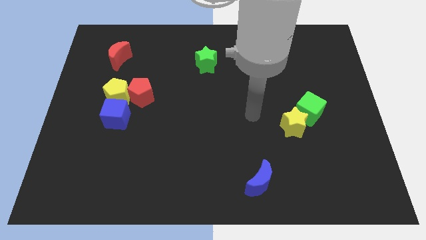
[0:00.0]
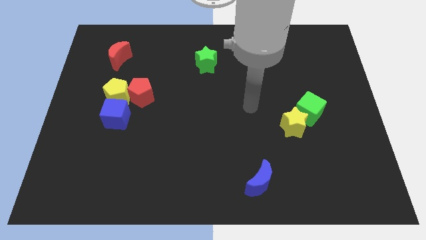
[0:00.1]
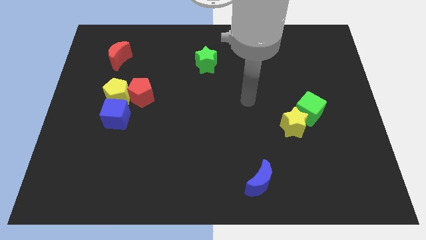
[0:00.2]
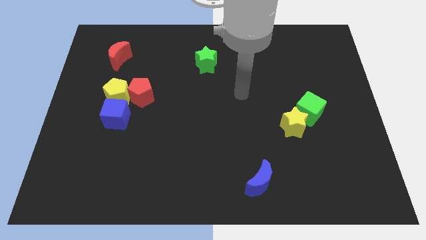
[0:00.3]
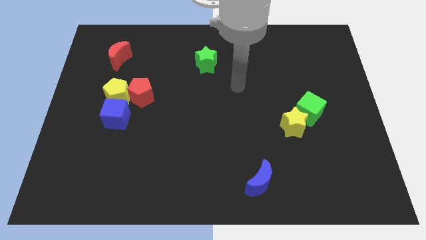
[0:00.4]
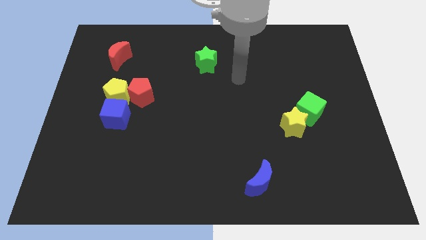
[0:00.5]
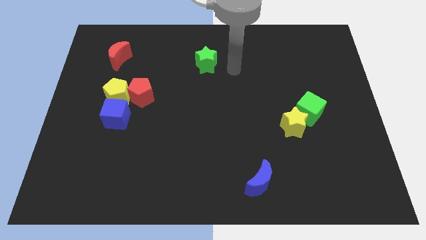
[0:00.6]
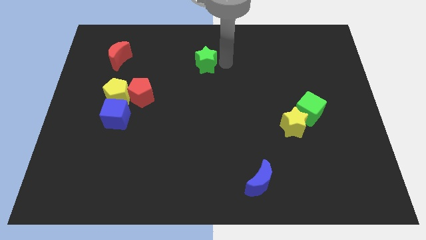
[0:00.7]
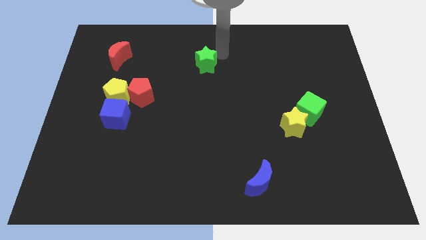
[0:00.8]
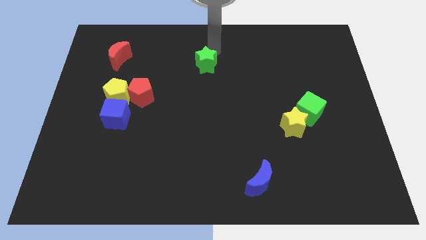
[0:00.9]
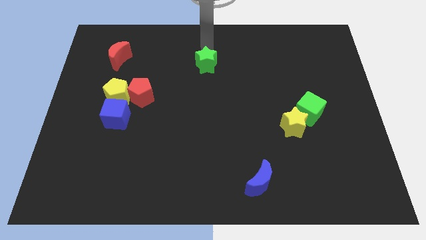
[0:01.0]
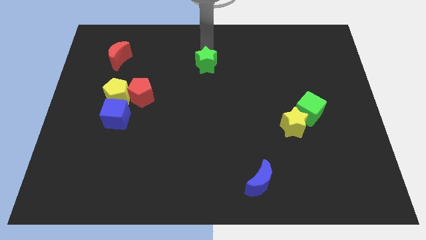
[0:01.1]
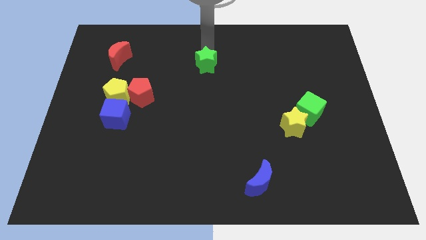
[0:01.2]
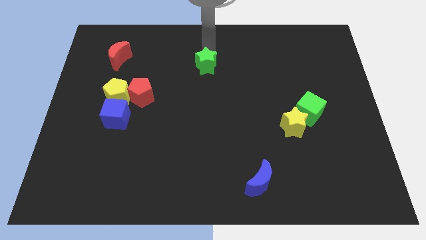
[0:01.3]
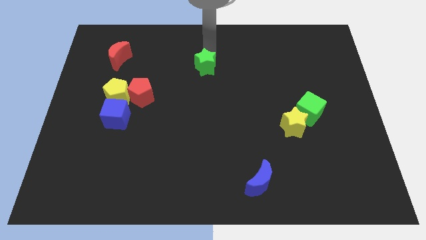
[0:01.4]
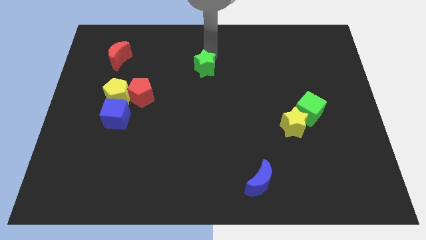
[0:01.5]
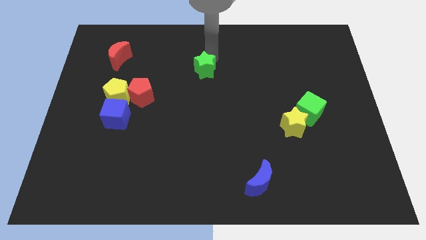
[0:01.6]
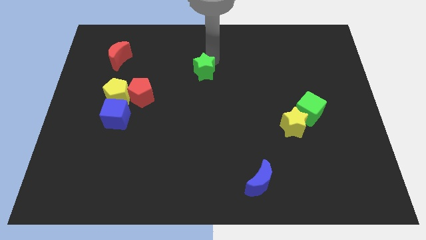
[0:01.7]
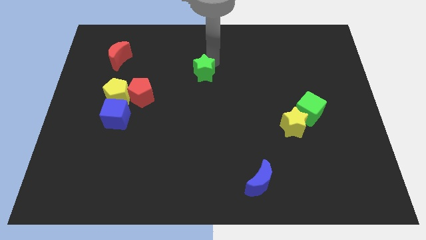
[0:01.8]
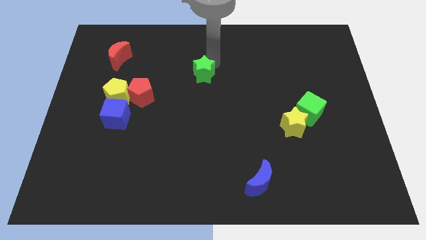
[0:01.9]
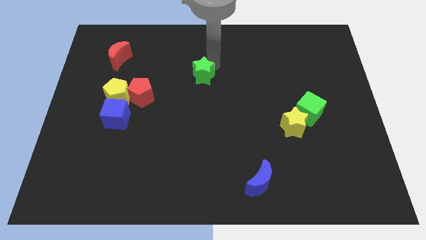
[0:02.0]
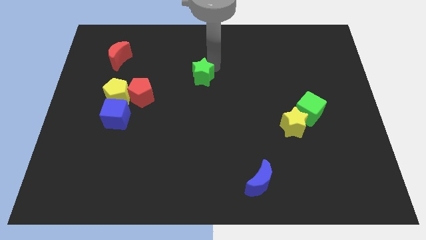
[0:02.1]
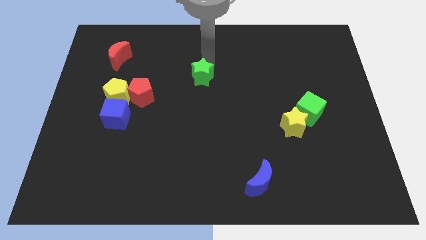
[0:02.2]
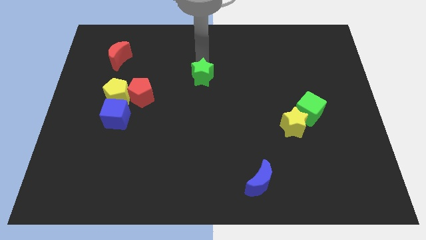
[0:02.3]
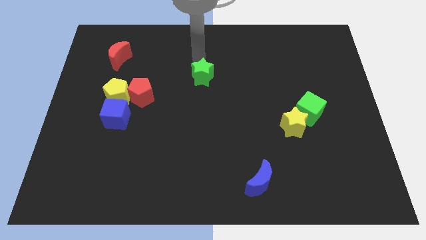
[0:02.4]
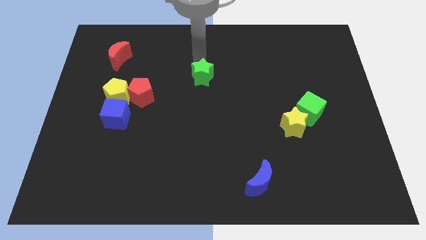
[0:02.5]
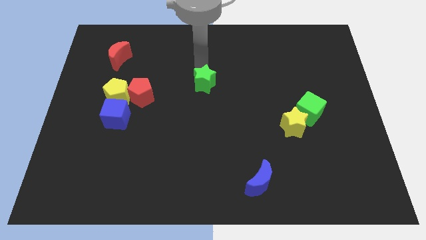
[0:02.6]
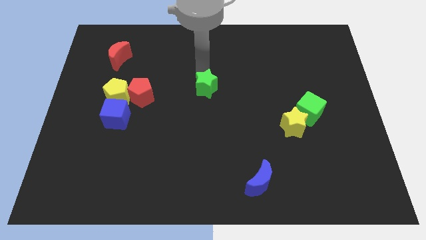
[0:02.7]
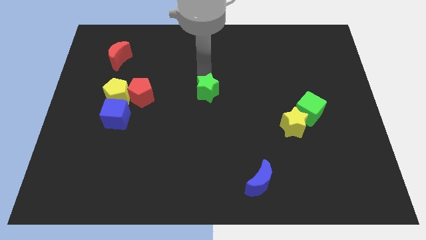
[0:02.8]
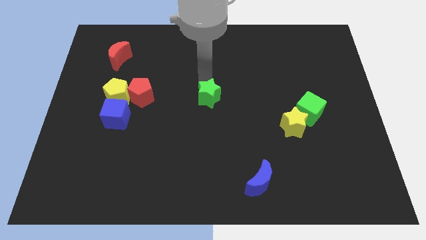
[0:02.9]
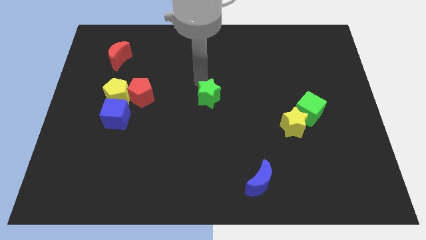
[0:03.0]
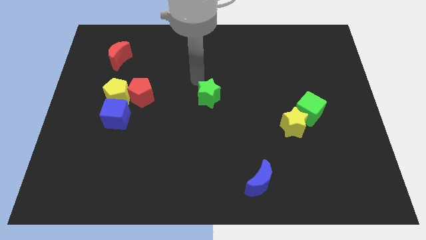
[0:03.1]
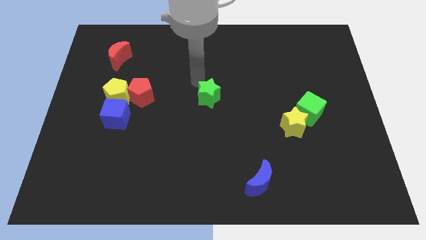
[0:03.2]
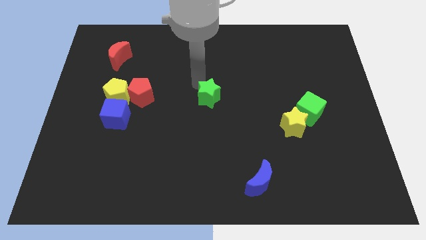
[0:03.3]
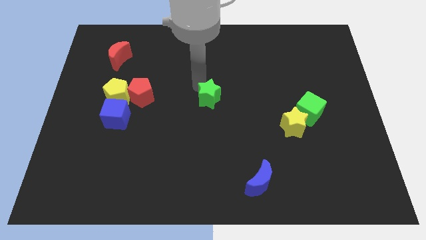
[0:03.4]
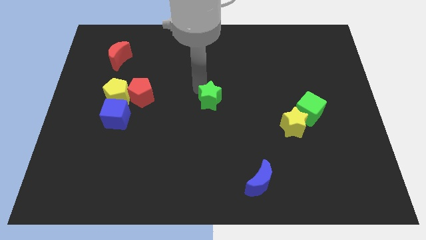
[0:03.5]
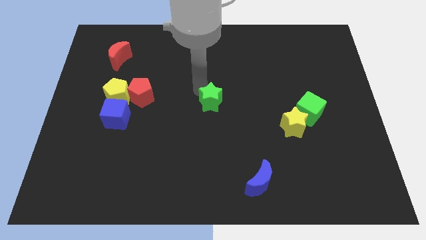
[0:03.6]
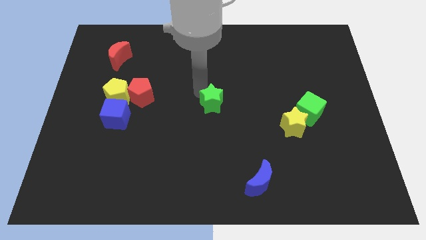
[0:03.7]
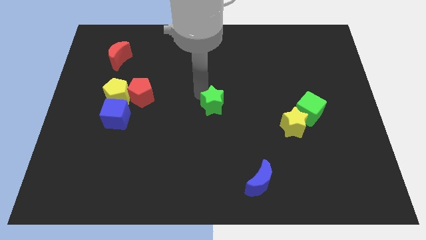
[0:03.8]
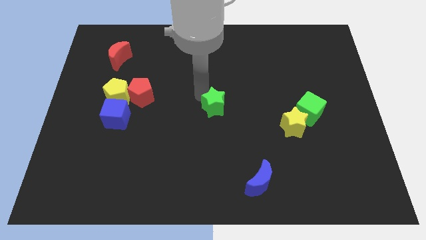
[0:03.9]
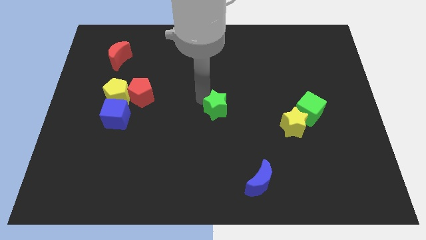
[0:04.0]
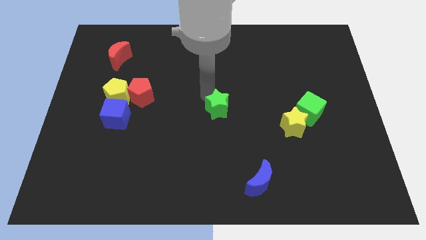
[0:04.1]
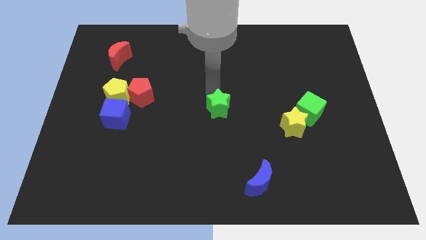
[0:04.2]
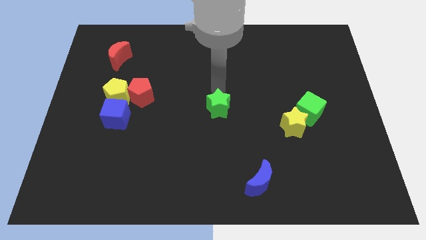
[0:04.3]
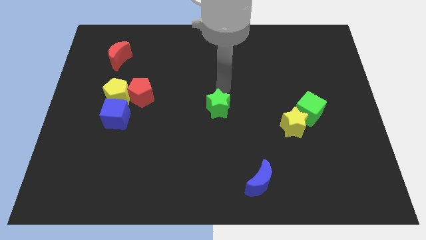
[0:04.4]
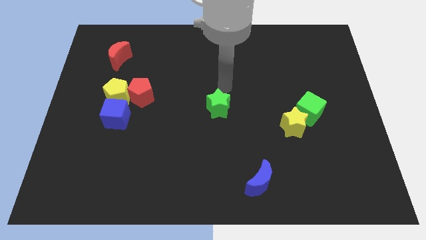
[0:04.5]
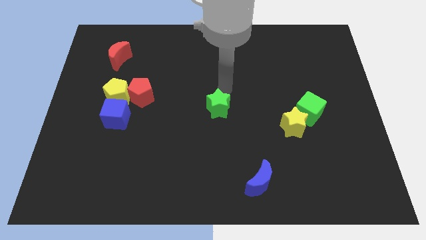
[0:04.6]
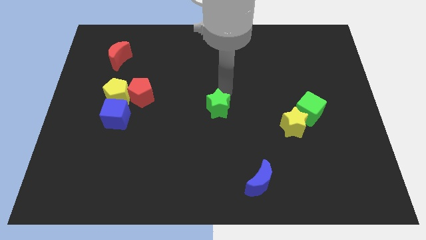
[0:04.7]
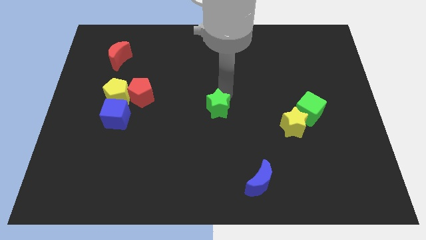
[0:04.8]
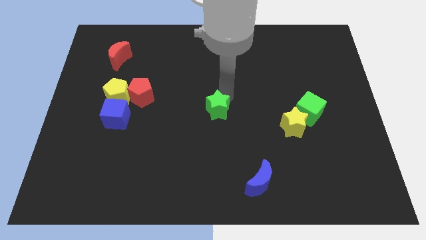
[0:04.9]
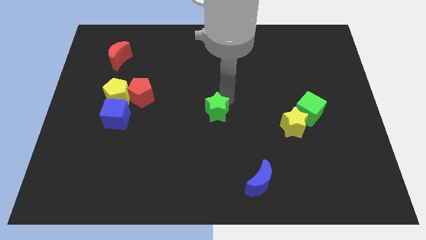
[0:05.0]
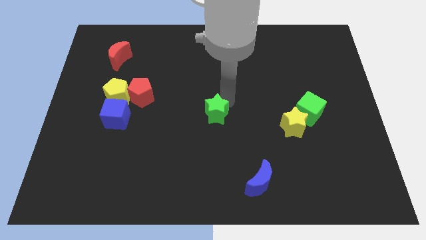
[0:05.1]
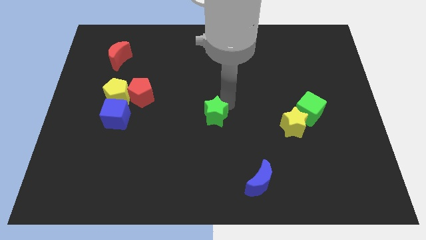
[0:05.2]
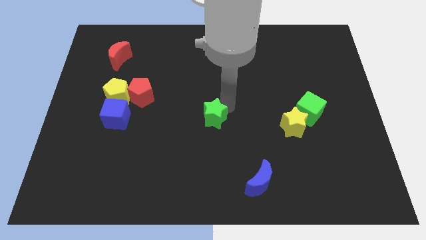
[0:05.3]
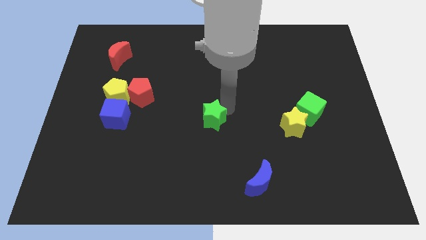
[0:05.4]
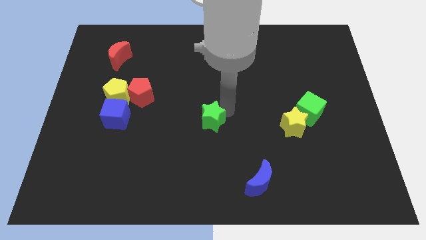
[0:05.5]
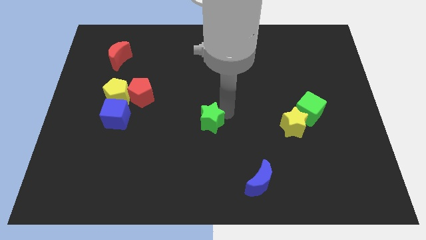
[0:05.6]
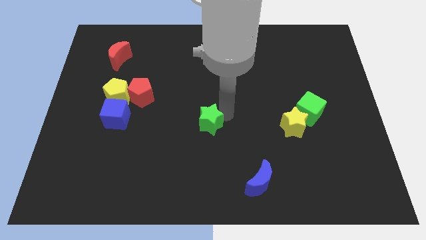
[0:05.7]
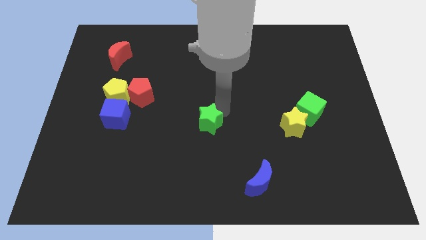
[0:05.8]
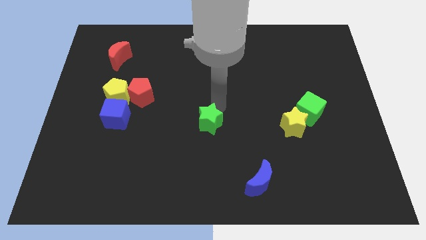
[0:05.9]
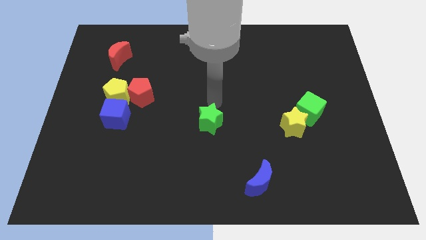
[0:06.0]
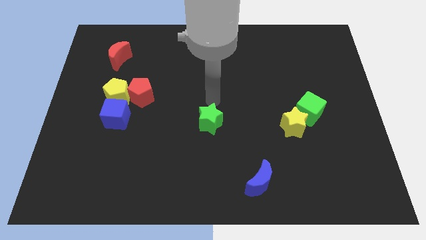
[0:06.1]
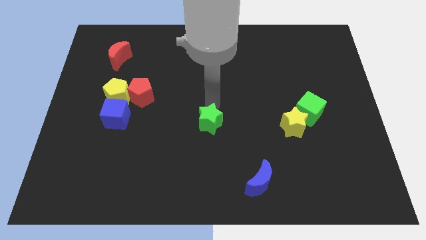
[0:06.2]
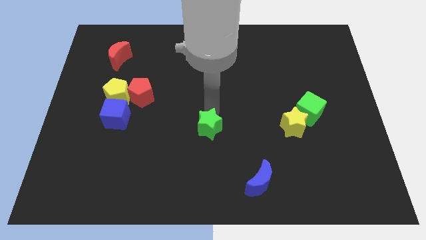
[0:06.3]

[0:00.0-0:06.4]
push the green star down

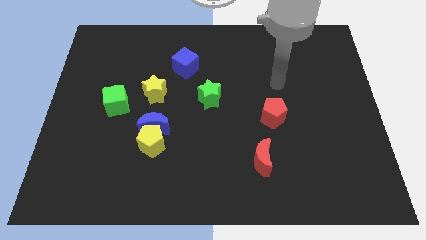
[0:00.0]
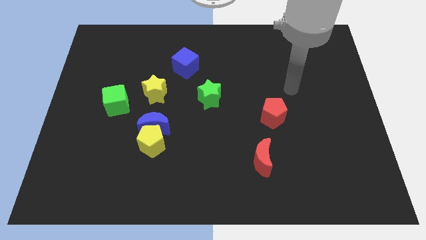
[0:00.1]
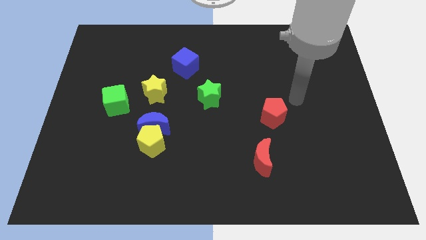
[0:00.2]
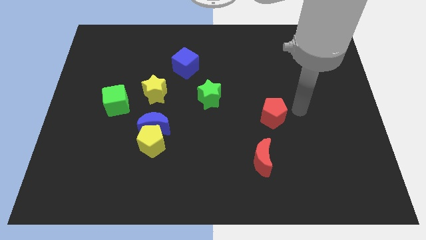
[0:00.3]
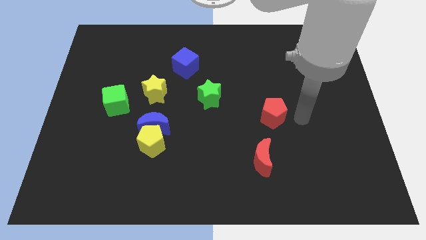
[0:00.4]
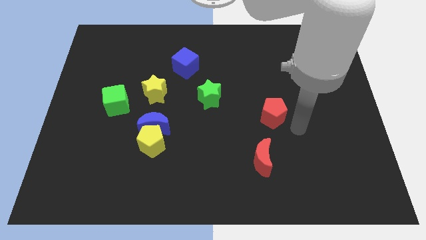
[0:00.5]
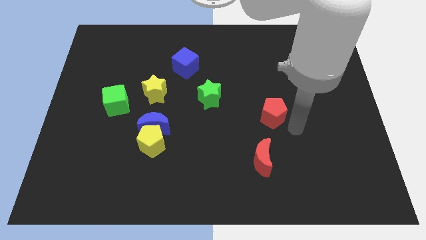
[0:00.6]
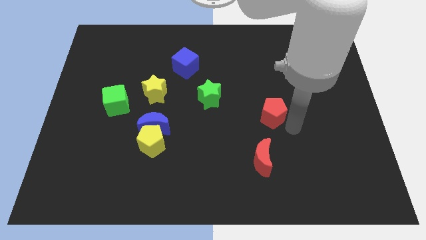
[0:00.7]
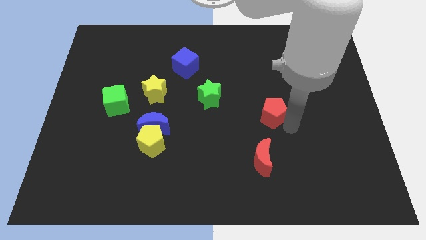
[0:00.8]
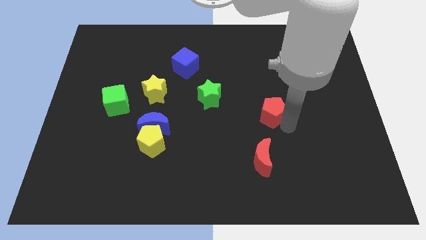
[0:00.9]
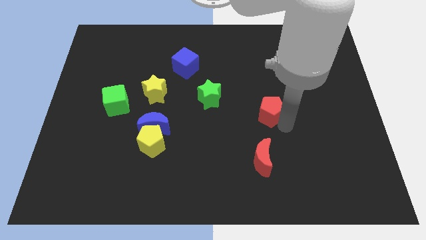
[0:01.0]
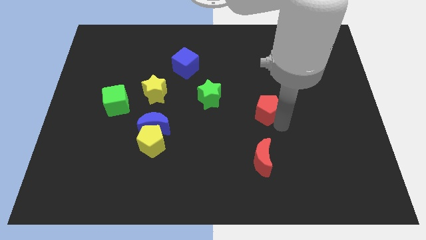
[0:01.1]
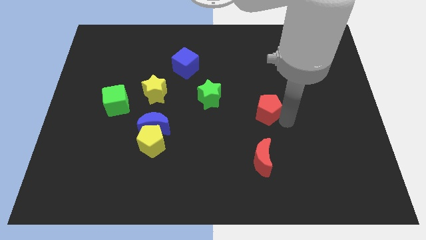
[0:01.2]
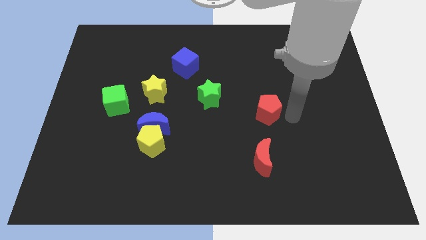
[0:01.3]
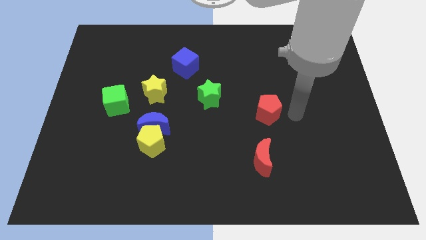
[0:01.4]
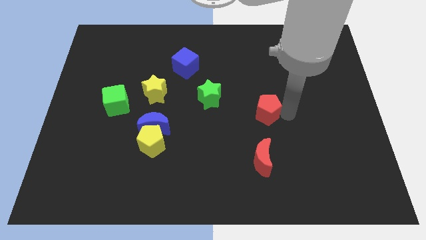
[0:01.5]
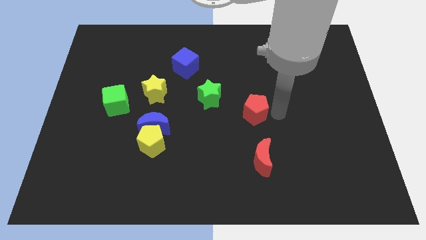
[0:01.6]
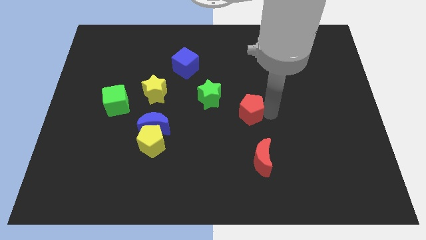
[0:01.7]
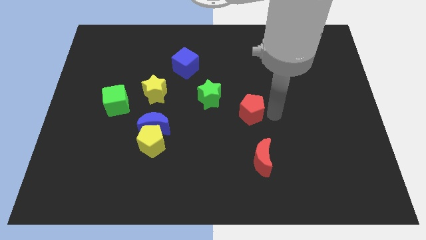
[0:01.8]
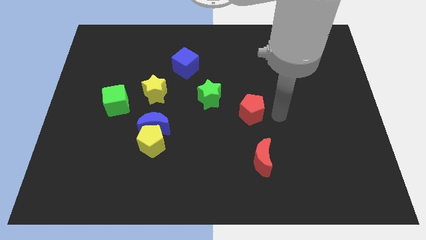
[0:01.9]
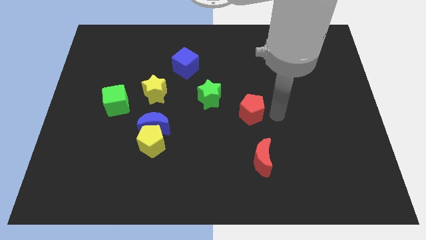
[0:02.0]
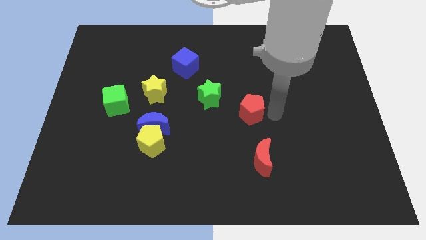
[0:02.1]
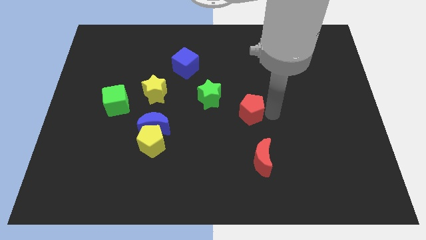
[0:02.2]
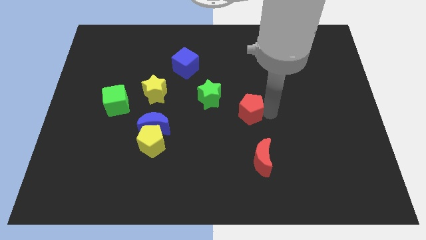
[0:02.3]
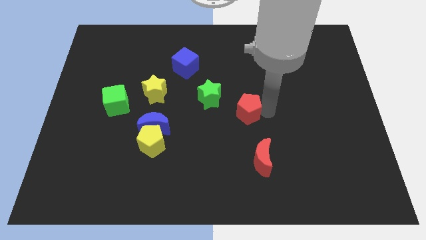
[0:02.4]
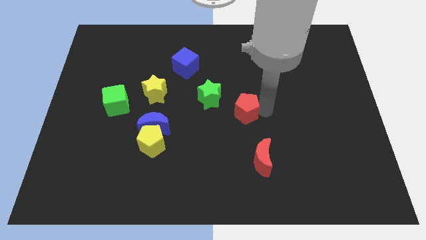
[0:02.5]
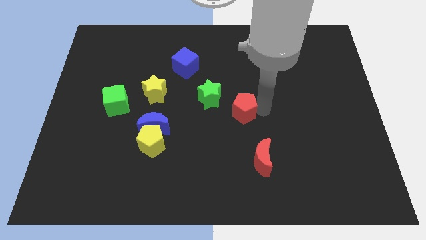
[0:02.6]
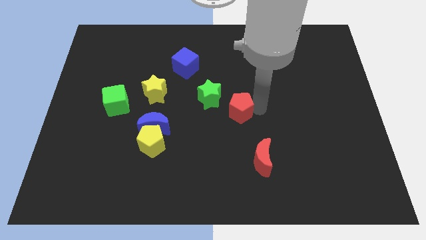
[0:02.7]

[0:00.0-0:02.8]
push the red pentagon to the left a bit
